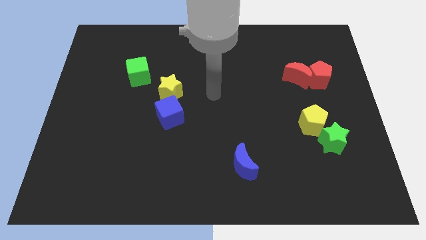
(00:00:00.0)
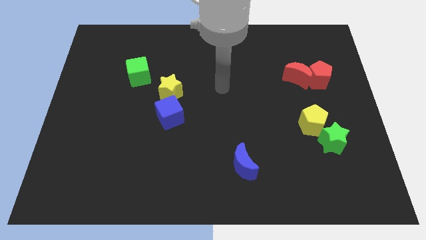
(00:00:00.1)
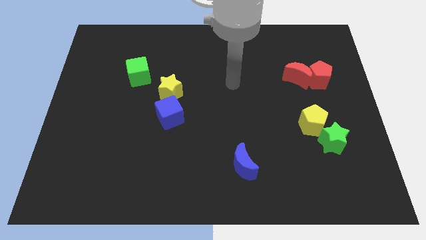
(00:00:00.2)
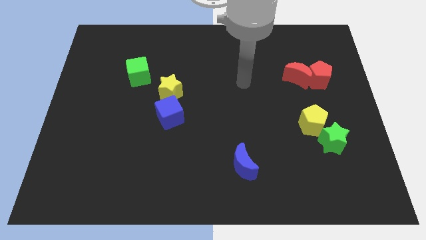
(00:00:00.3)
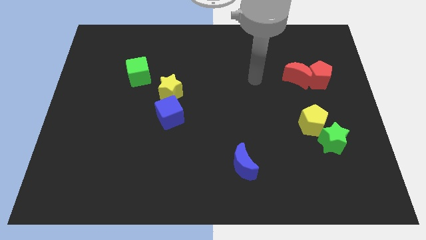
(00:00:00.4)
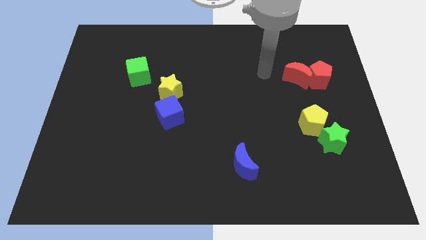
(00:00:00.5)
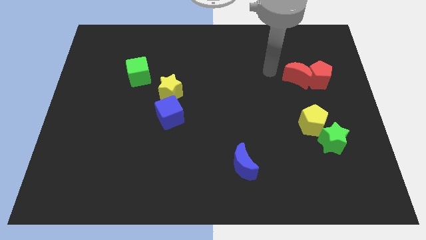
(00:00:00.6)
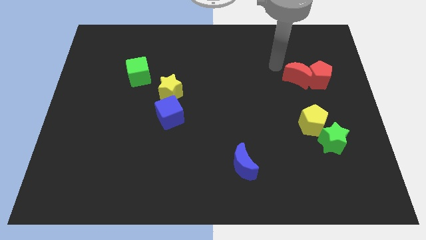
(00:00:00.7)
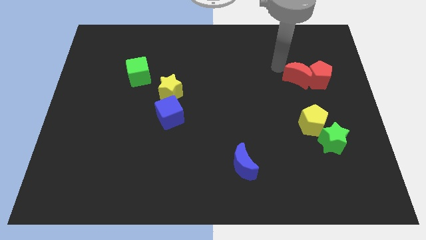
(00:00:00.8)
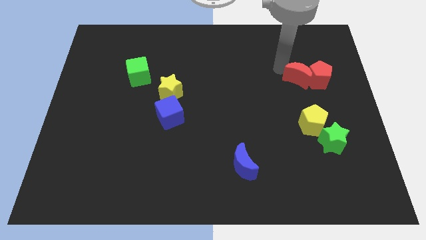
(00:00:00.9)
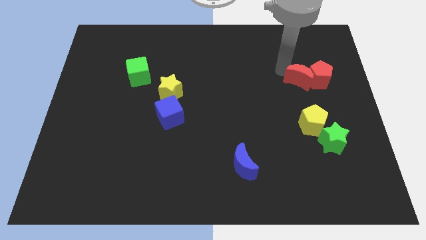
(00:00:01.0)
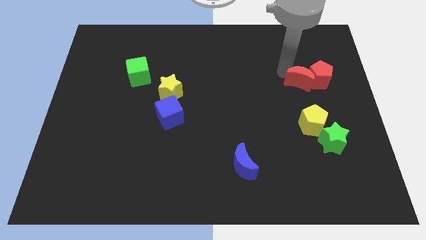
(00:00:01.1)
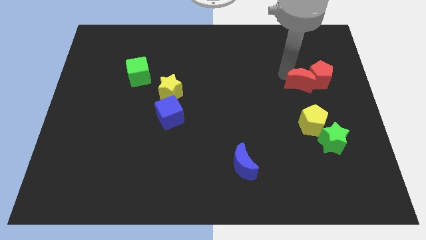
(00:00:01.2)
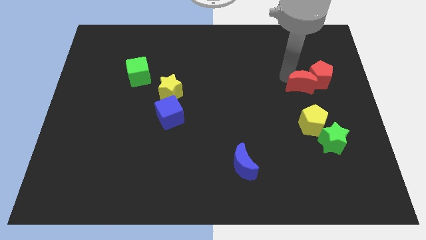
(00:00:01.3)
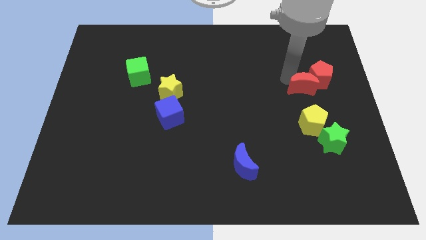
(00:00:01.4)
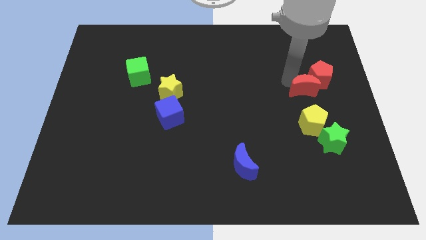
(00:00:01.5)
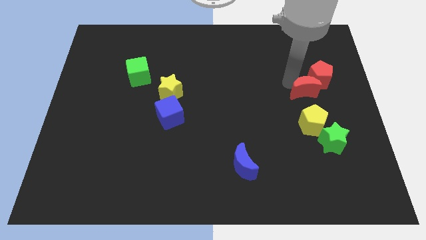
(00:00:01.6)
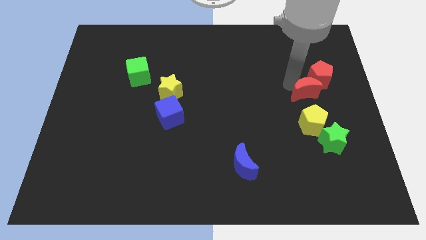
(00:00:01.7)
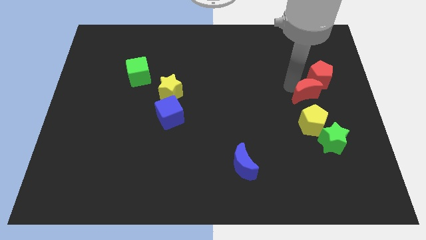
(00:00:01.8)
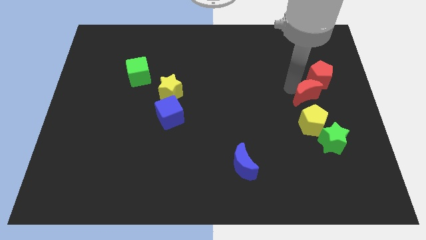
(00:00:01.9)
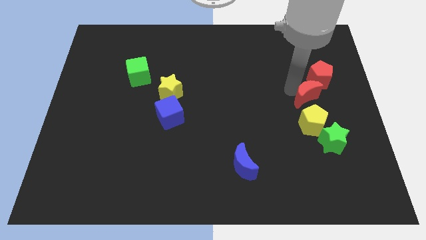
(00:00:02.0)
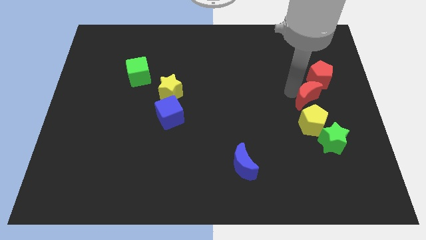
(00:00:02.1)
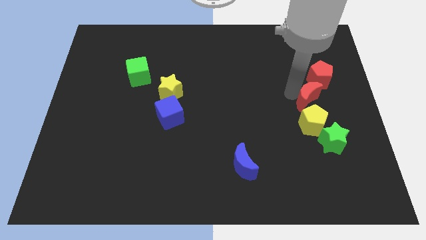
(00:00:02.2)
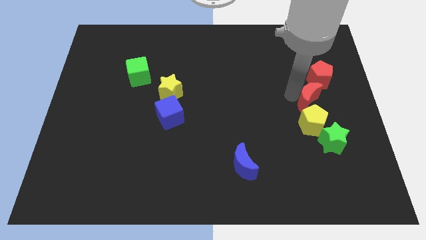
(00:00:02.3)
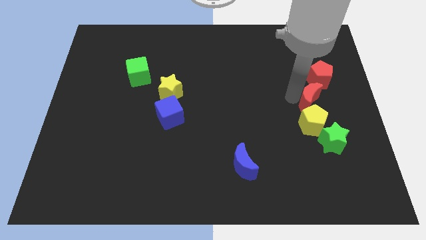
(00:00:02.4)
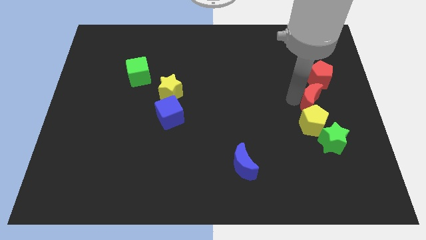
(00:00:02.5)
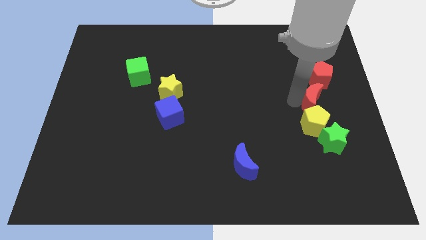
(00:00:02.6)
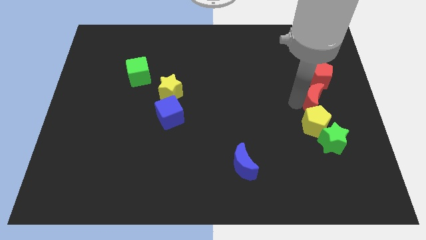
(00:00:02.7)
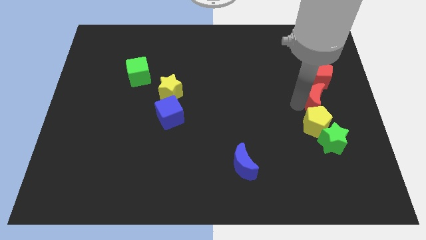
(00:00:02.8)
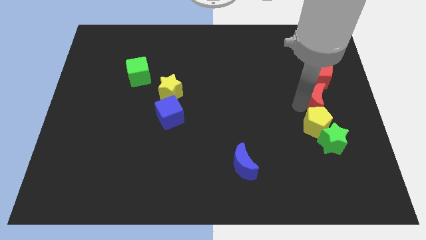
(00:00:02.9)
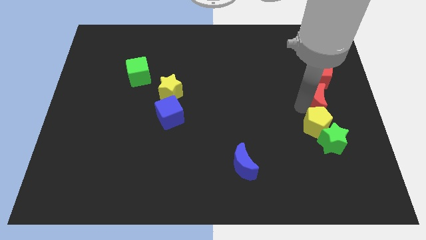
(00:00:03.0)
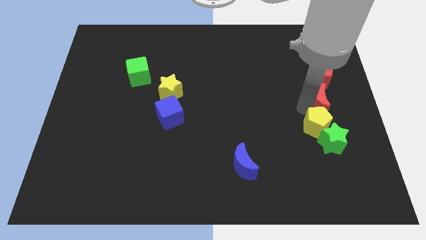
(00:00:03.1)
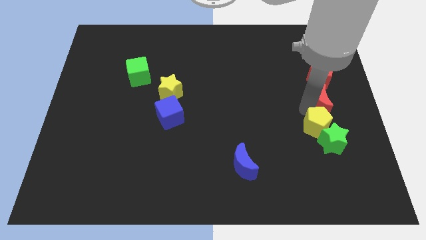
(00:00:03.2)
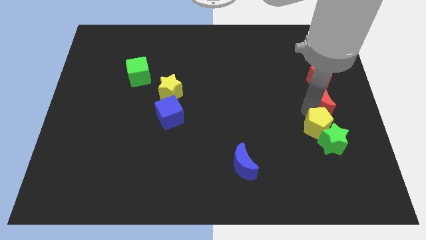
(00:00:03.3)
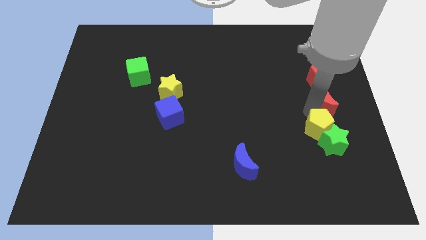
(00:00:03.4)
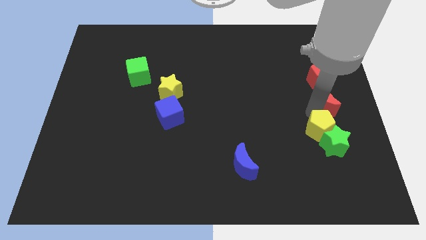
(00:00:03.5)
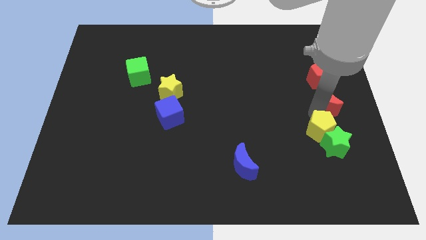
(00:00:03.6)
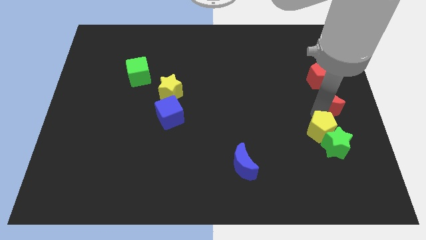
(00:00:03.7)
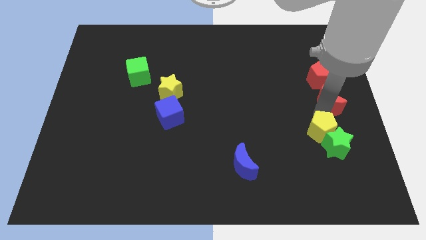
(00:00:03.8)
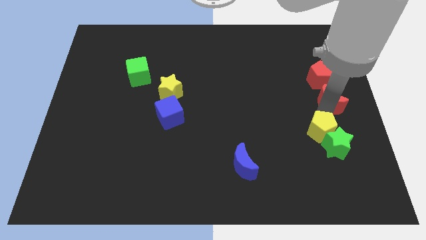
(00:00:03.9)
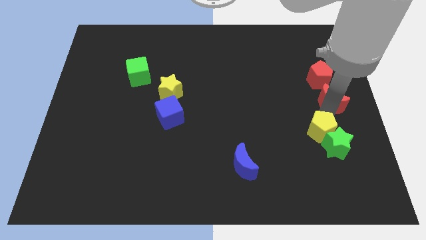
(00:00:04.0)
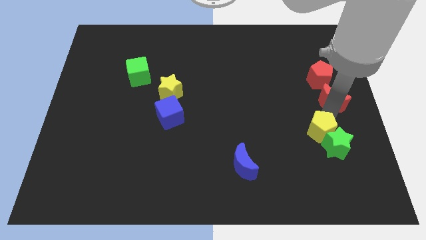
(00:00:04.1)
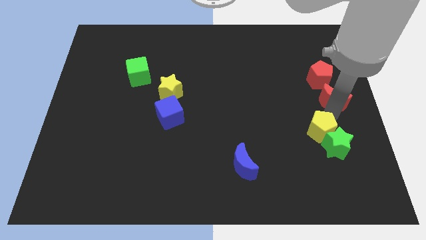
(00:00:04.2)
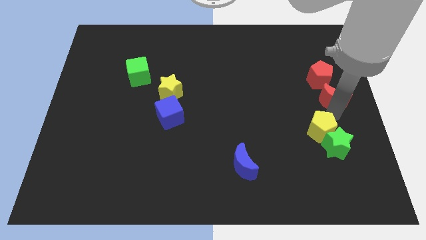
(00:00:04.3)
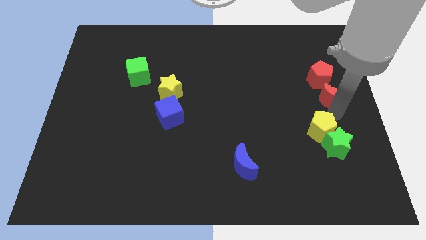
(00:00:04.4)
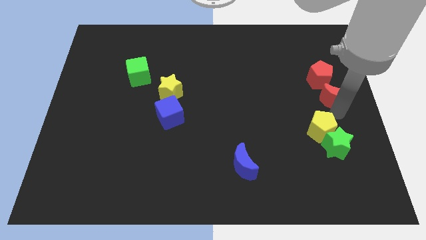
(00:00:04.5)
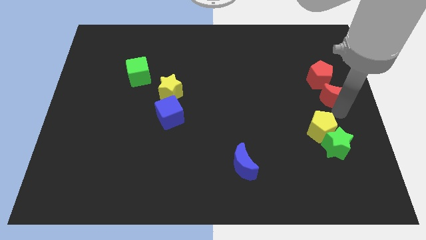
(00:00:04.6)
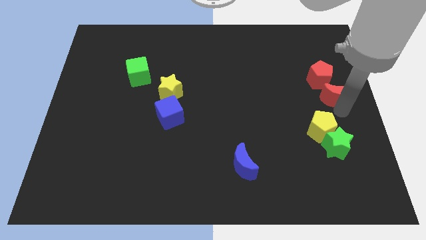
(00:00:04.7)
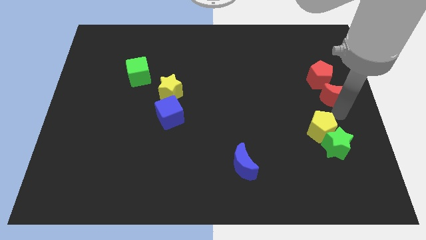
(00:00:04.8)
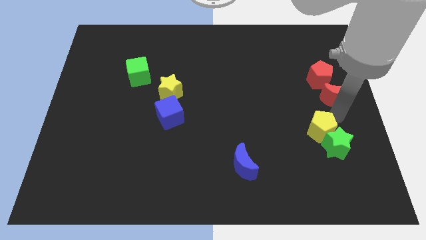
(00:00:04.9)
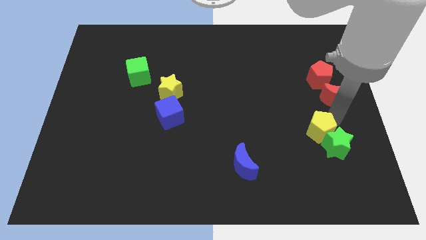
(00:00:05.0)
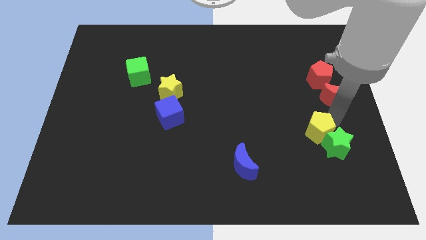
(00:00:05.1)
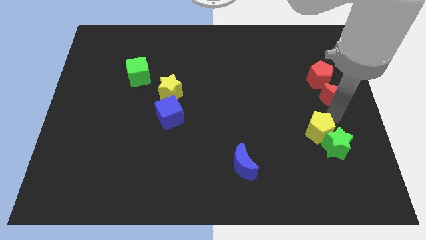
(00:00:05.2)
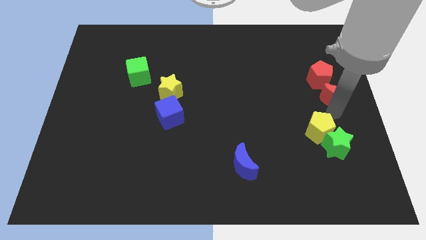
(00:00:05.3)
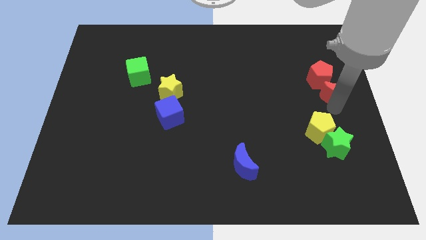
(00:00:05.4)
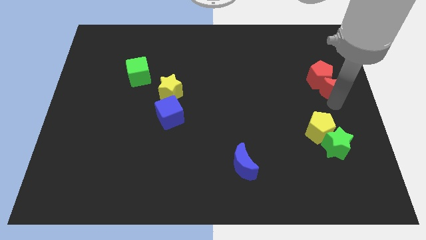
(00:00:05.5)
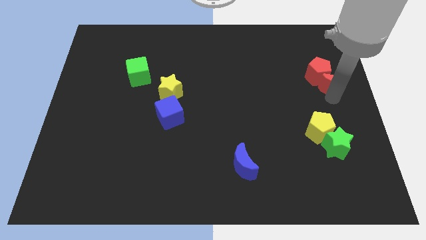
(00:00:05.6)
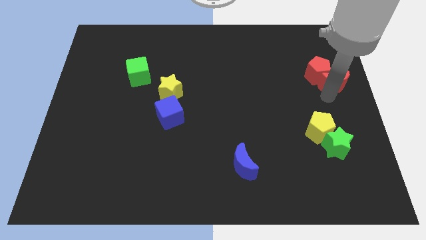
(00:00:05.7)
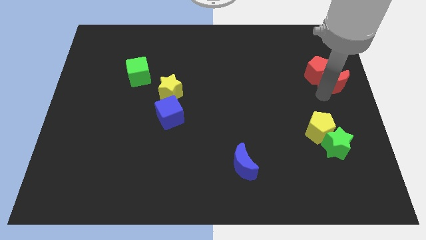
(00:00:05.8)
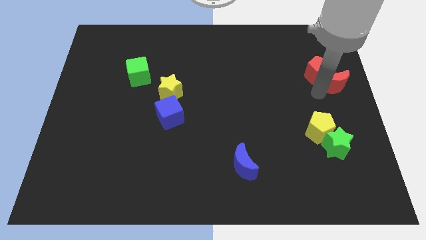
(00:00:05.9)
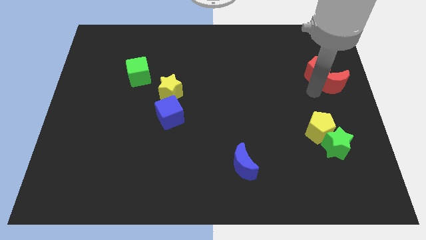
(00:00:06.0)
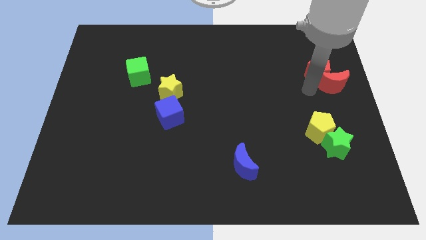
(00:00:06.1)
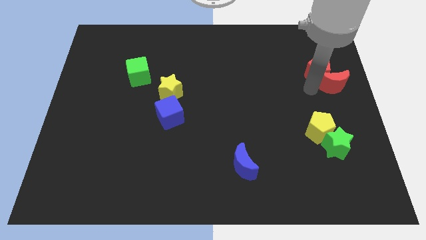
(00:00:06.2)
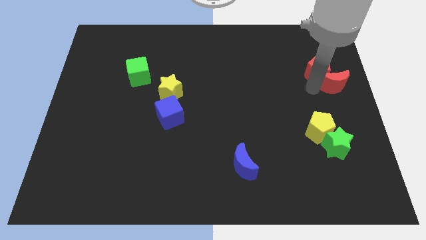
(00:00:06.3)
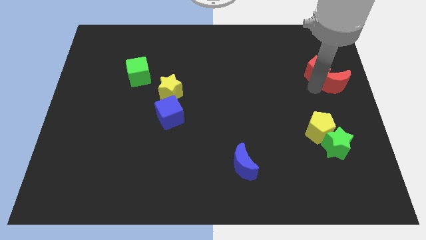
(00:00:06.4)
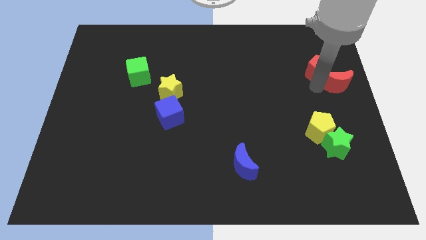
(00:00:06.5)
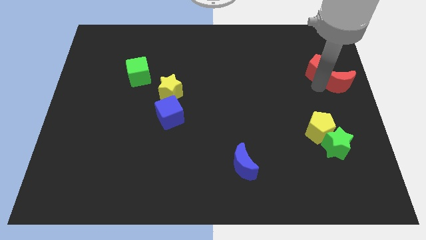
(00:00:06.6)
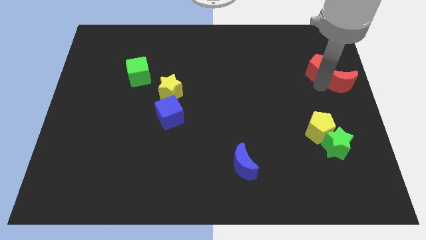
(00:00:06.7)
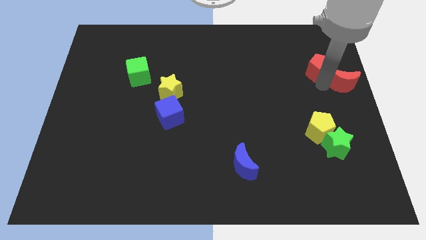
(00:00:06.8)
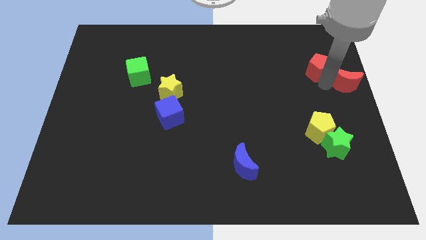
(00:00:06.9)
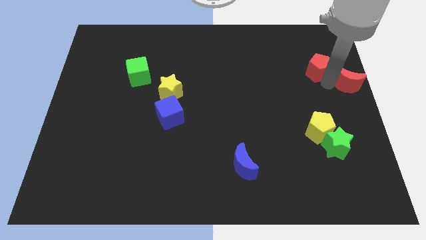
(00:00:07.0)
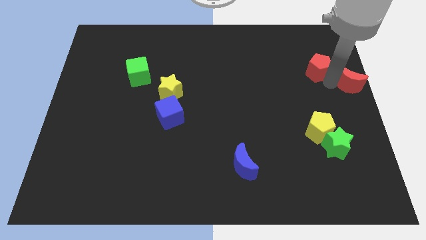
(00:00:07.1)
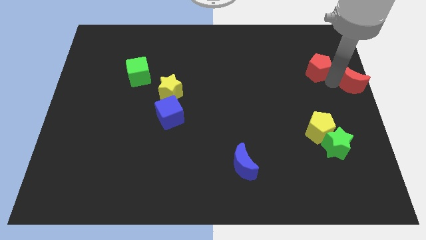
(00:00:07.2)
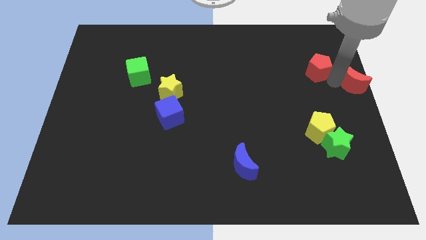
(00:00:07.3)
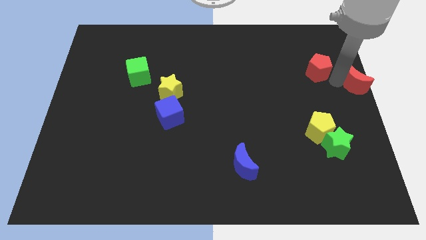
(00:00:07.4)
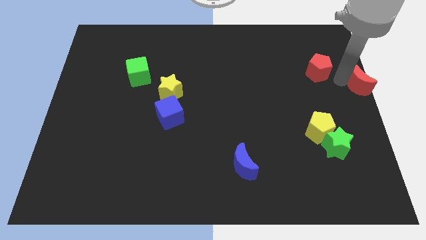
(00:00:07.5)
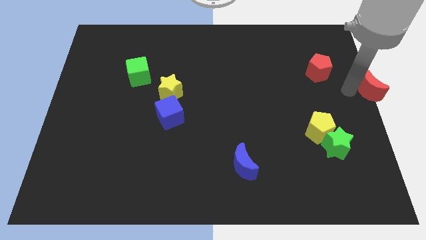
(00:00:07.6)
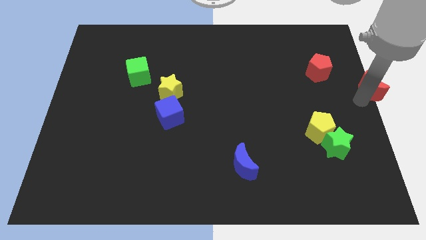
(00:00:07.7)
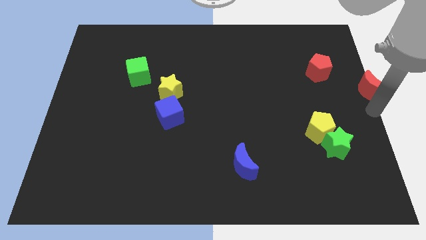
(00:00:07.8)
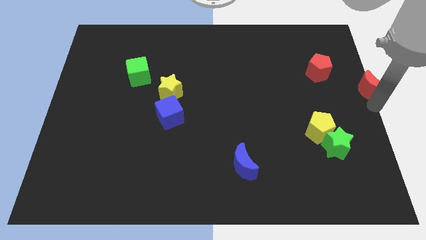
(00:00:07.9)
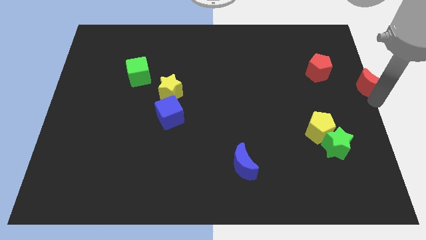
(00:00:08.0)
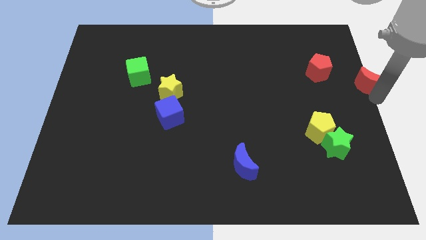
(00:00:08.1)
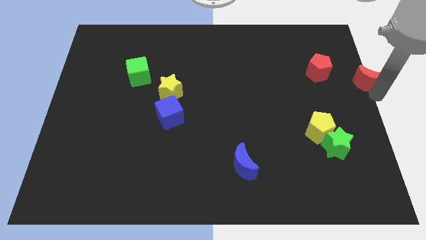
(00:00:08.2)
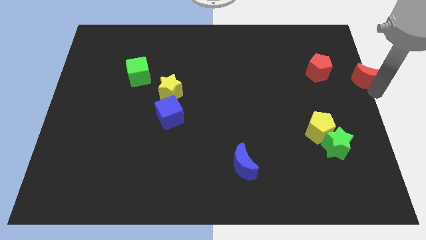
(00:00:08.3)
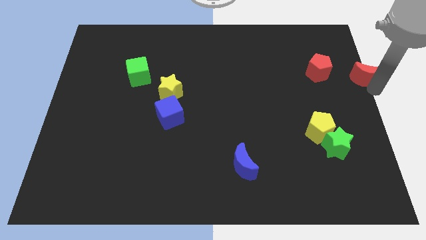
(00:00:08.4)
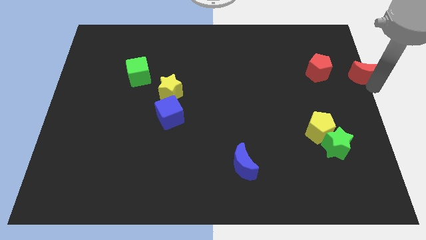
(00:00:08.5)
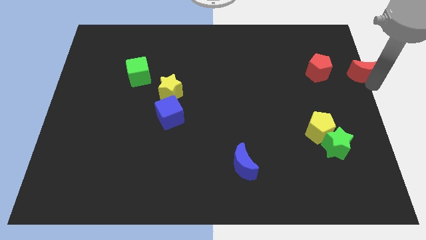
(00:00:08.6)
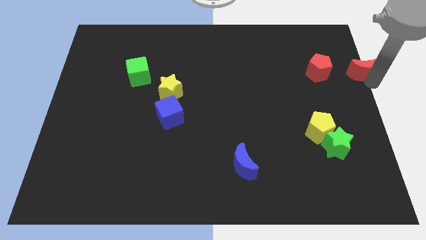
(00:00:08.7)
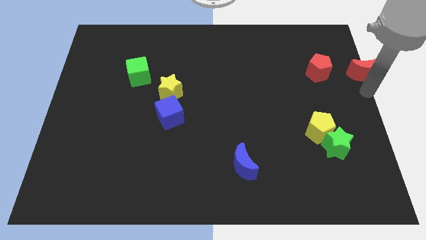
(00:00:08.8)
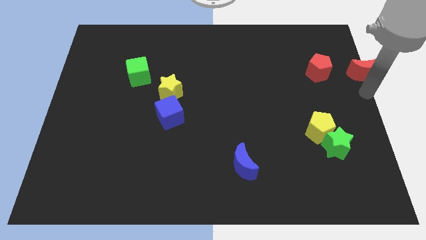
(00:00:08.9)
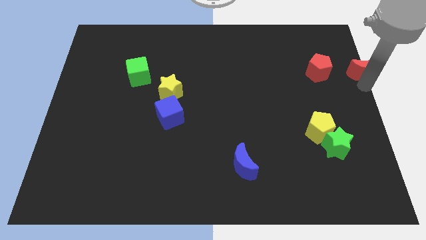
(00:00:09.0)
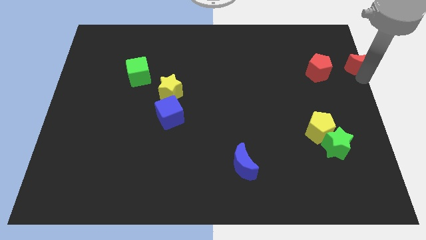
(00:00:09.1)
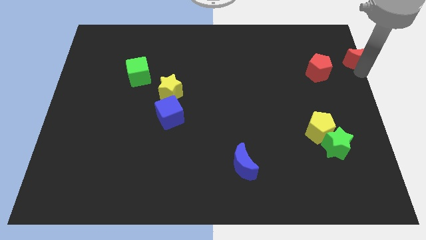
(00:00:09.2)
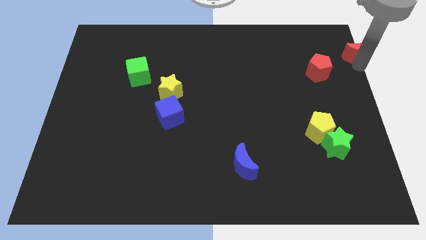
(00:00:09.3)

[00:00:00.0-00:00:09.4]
push the red moon to the top right
